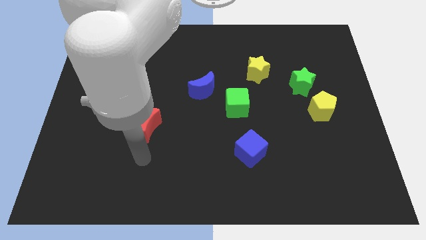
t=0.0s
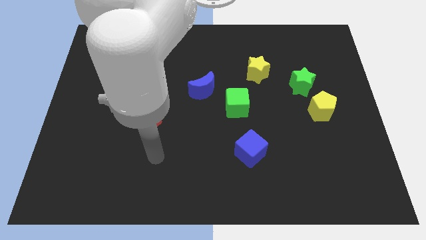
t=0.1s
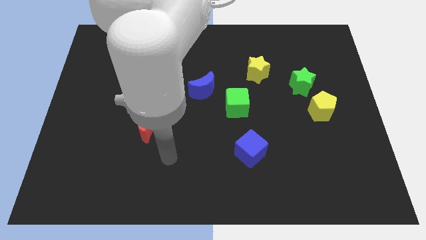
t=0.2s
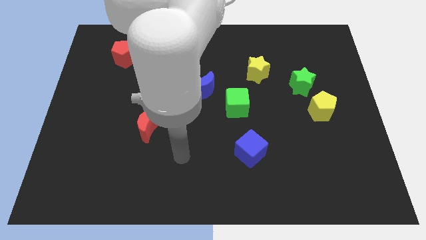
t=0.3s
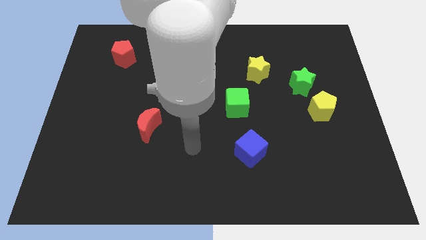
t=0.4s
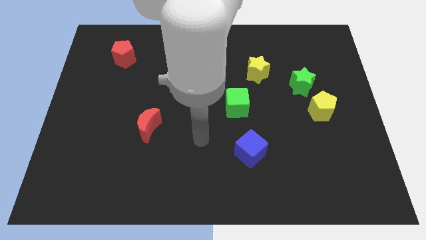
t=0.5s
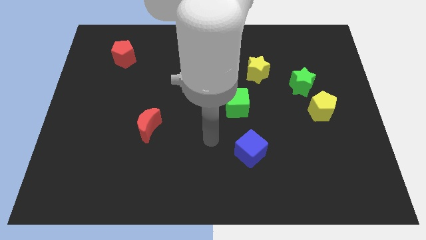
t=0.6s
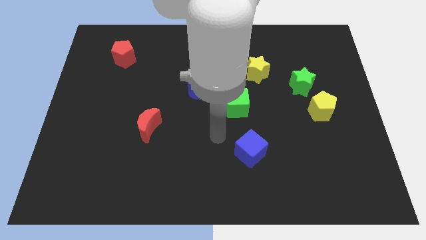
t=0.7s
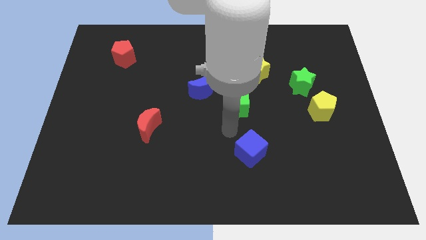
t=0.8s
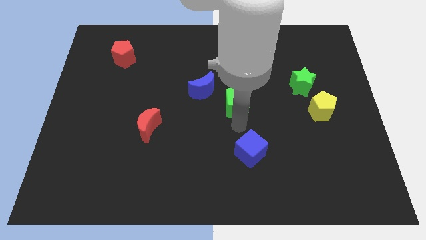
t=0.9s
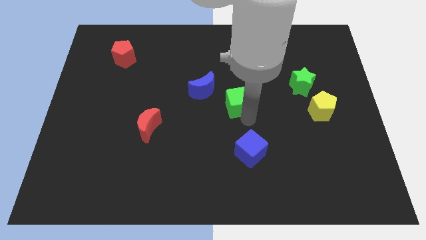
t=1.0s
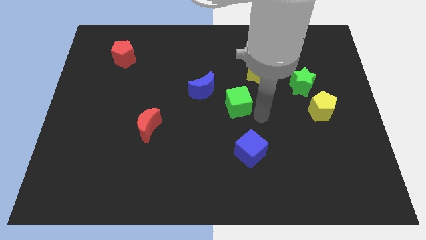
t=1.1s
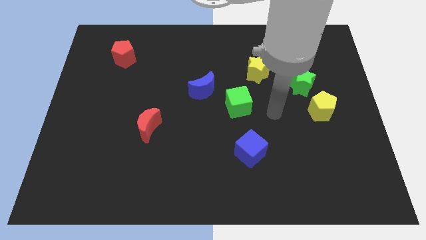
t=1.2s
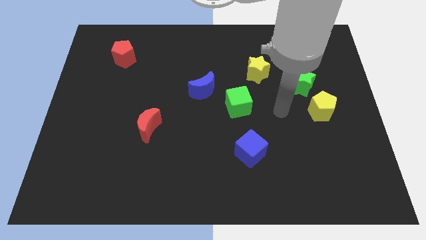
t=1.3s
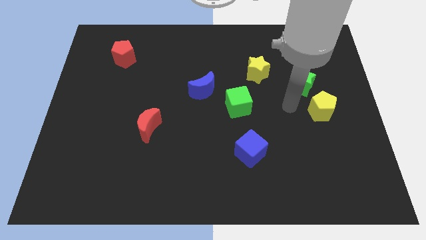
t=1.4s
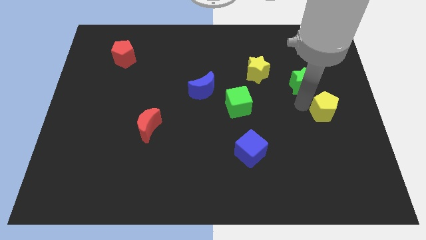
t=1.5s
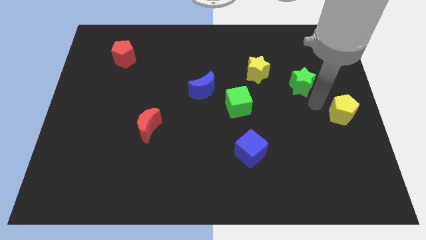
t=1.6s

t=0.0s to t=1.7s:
pull the green star apart from the yellow pentagon

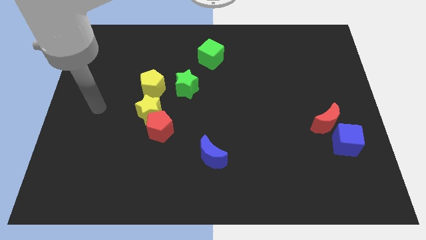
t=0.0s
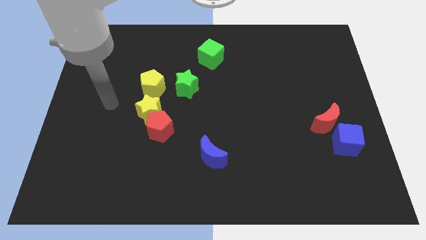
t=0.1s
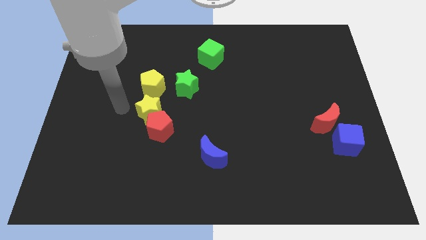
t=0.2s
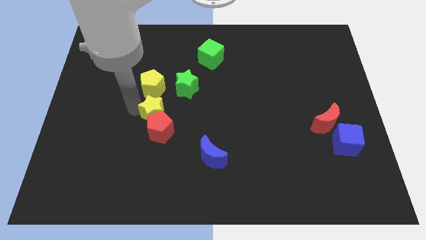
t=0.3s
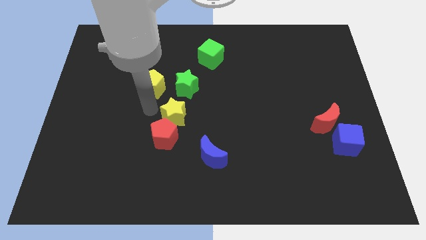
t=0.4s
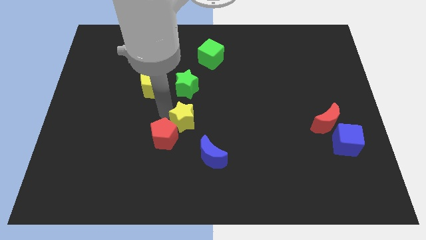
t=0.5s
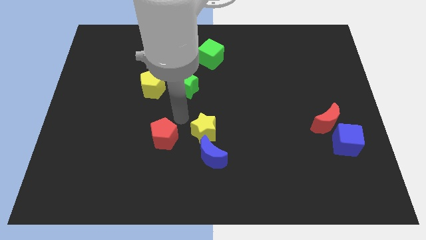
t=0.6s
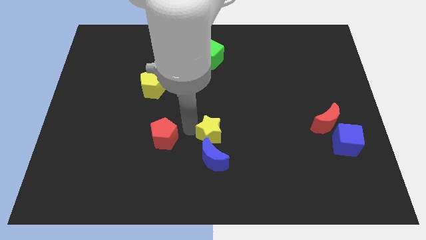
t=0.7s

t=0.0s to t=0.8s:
pull the red pentagon apart from the yellow star

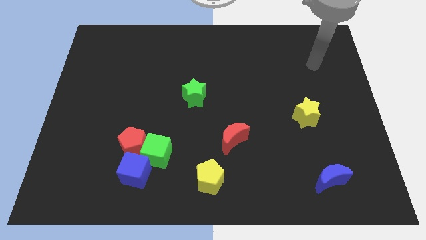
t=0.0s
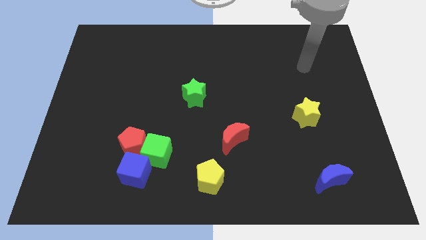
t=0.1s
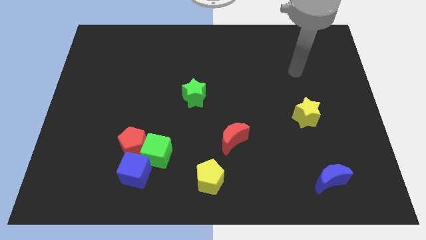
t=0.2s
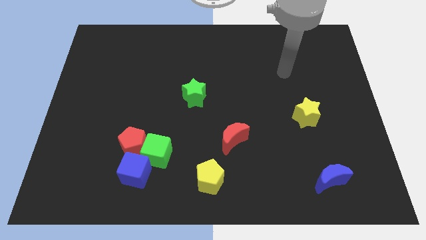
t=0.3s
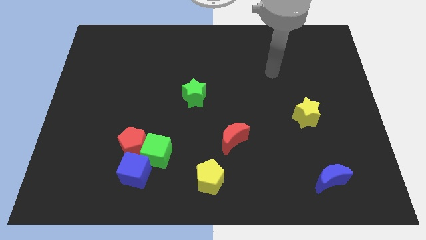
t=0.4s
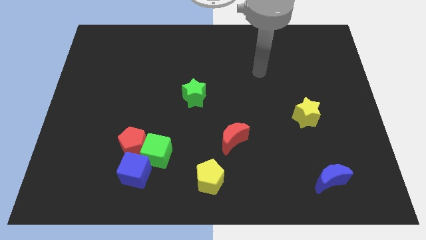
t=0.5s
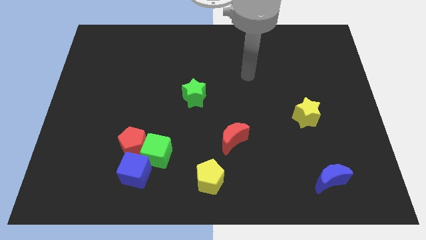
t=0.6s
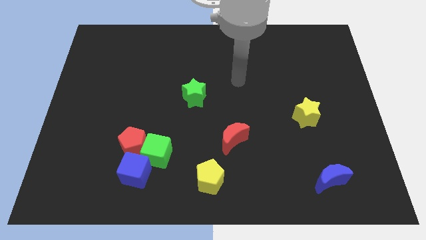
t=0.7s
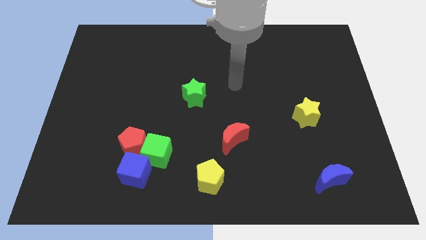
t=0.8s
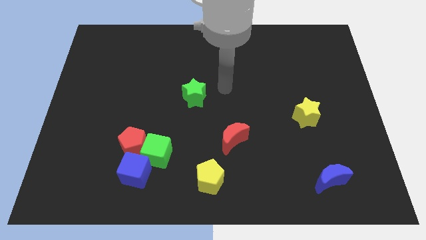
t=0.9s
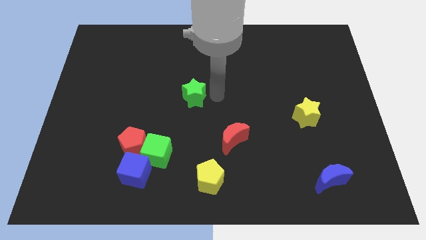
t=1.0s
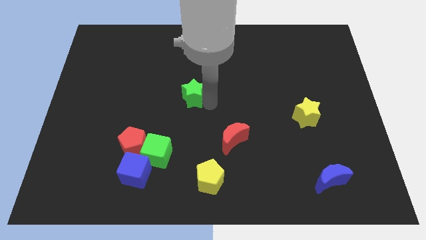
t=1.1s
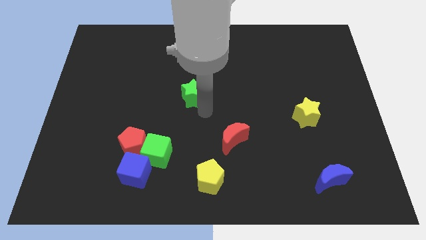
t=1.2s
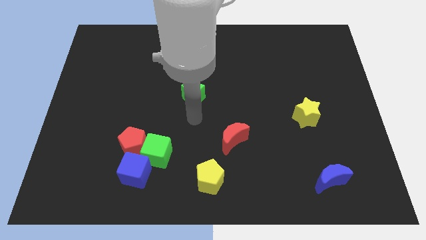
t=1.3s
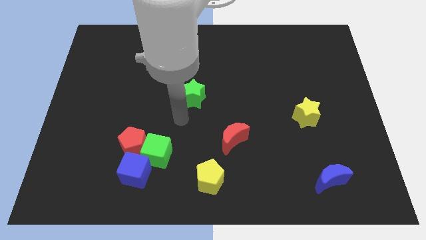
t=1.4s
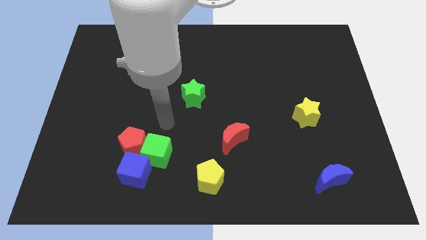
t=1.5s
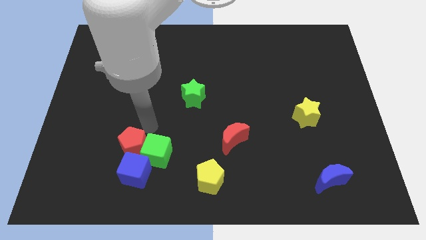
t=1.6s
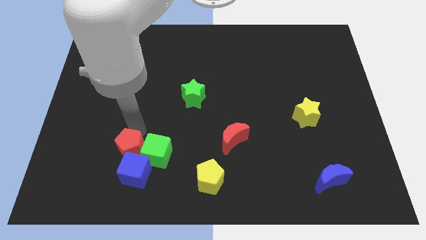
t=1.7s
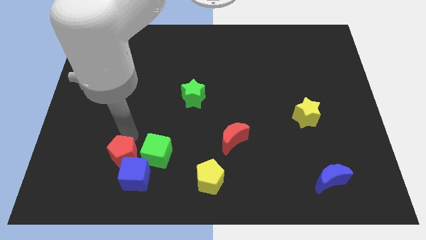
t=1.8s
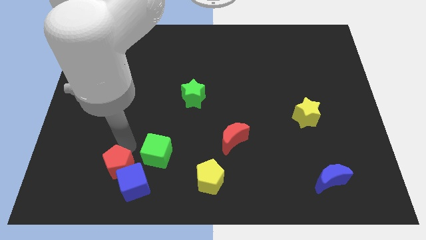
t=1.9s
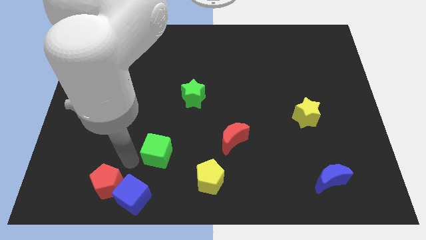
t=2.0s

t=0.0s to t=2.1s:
separate the green cube from the red pentagon and blue cube

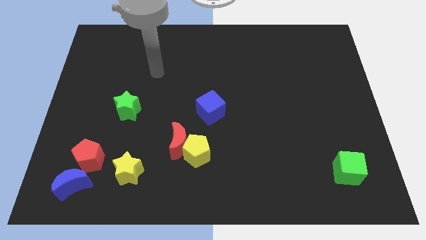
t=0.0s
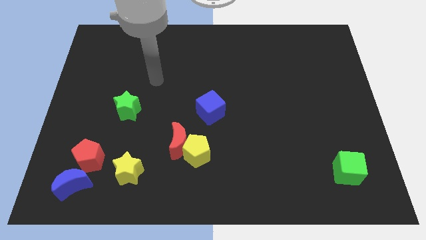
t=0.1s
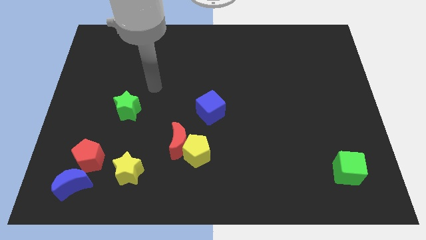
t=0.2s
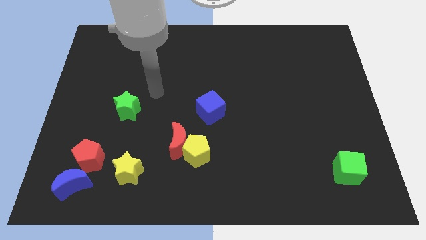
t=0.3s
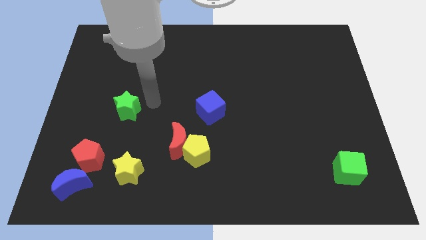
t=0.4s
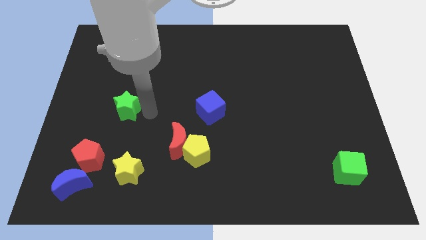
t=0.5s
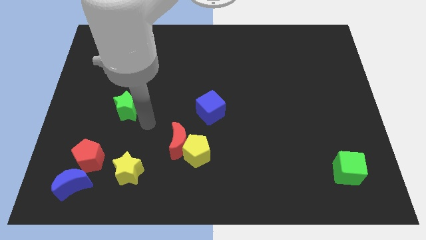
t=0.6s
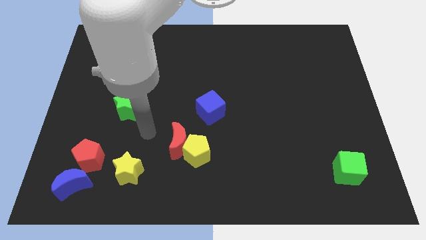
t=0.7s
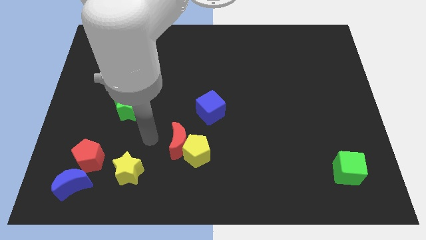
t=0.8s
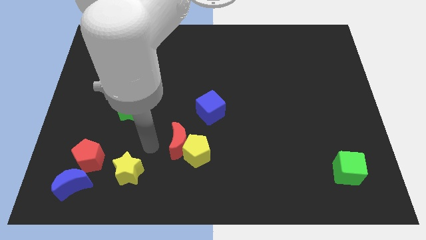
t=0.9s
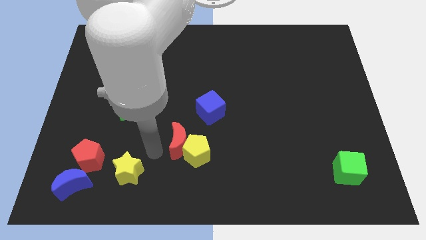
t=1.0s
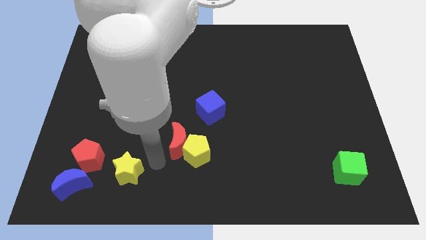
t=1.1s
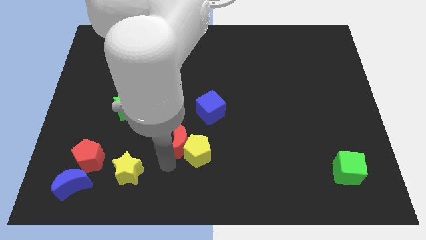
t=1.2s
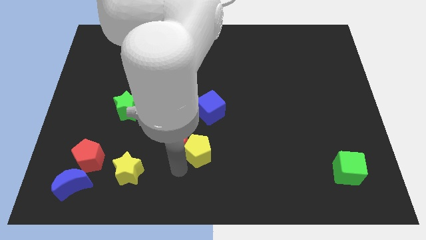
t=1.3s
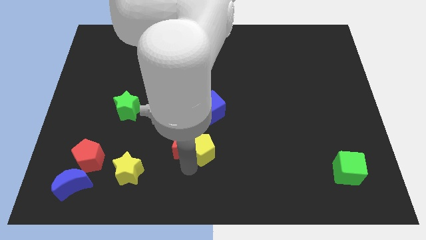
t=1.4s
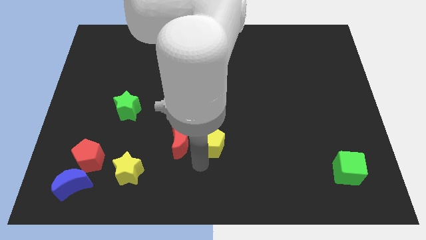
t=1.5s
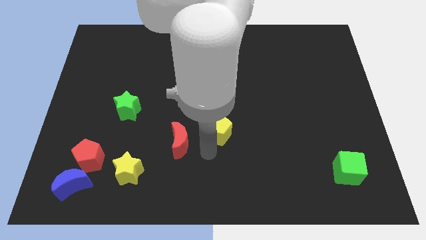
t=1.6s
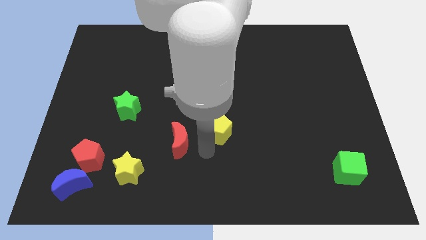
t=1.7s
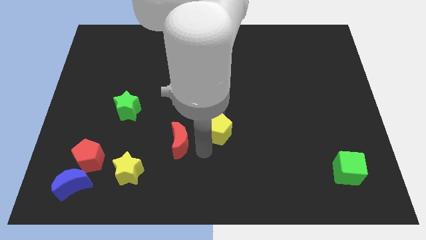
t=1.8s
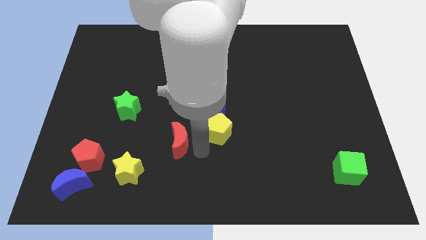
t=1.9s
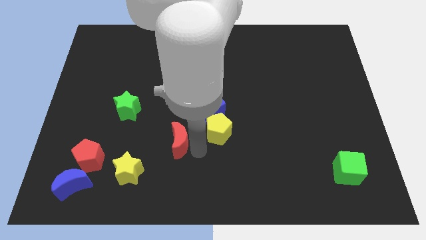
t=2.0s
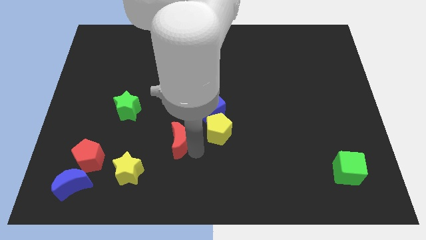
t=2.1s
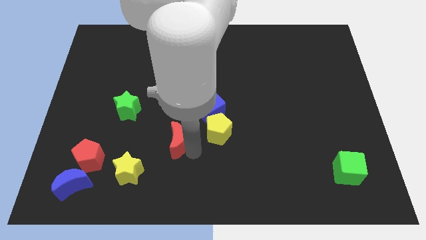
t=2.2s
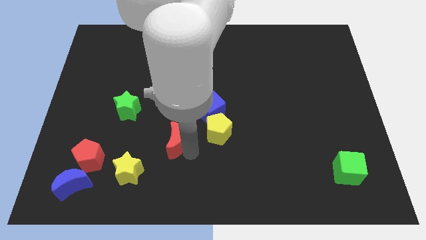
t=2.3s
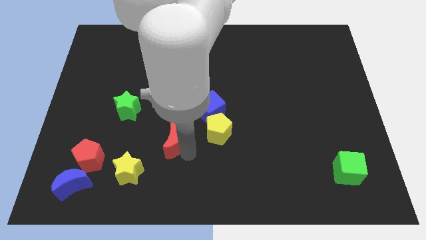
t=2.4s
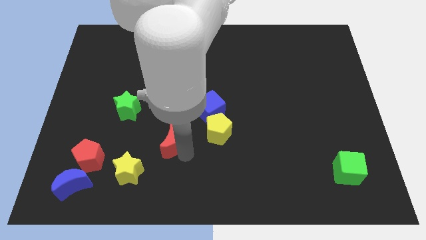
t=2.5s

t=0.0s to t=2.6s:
move the red moon away from the yellow pentagon

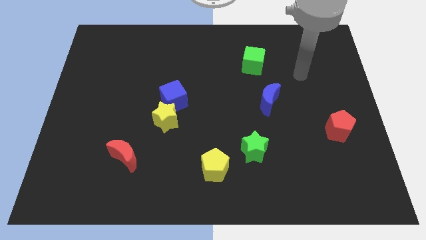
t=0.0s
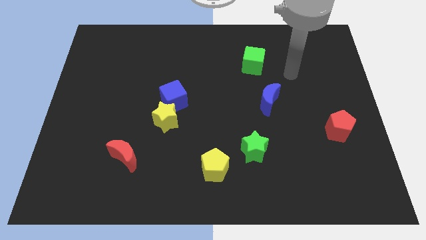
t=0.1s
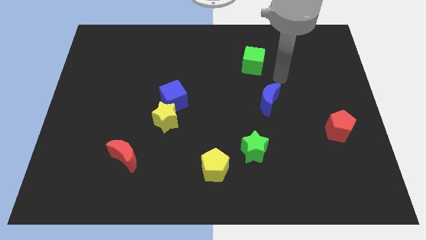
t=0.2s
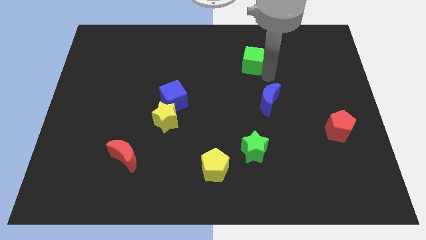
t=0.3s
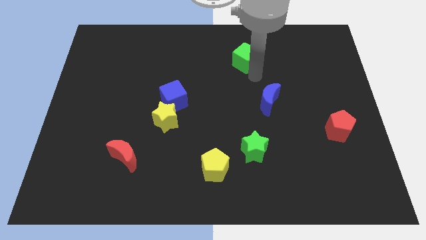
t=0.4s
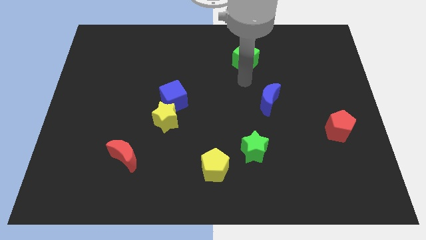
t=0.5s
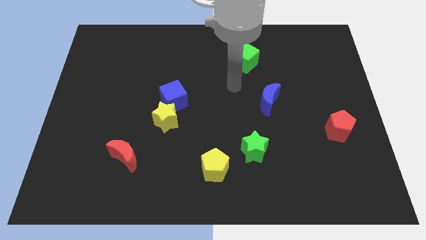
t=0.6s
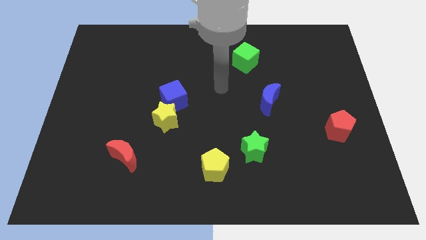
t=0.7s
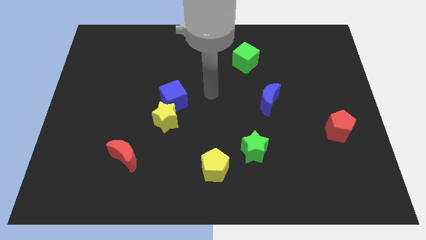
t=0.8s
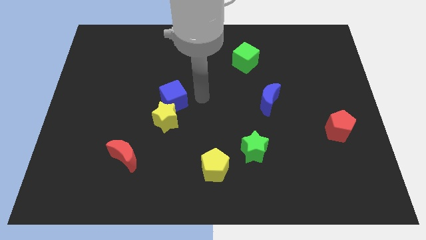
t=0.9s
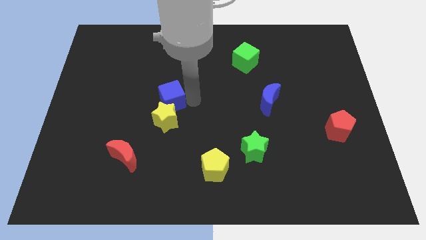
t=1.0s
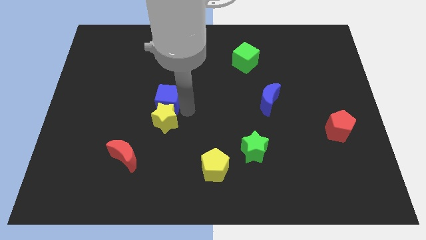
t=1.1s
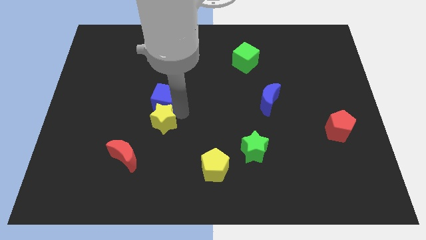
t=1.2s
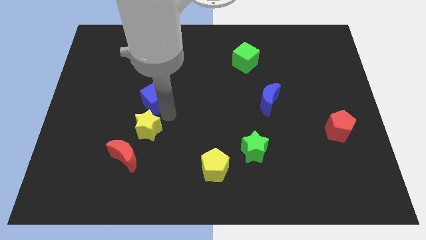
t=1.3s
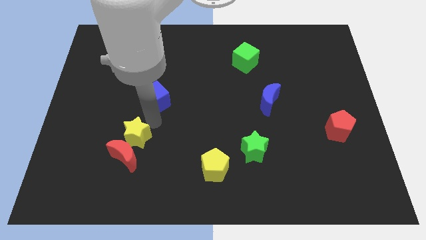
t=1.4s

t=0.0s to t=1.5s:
move the blue cube away from the yellow star

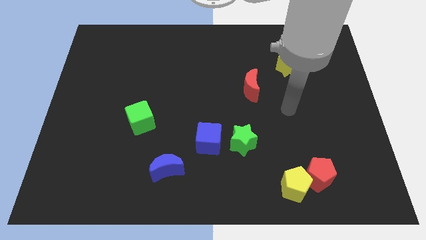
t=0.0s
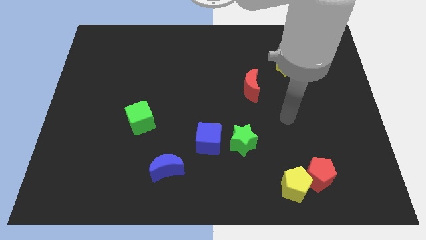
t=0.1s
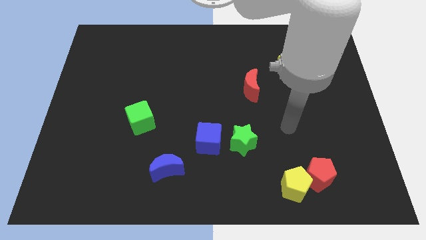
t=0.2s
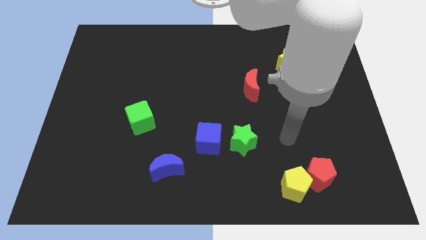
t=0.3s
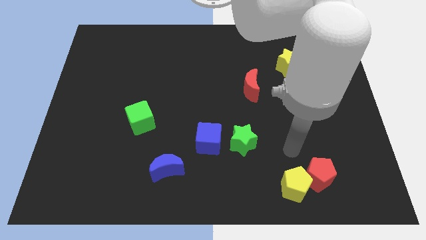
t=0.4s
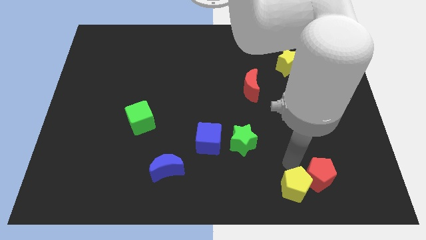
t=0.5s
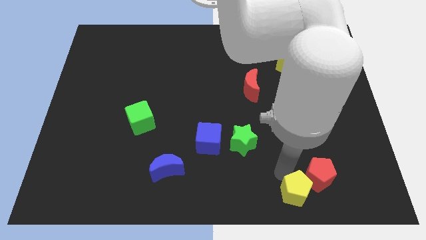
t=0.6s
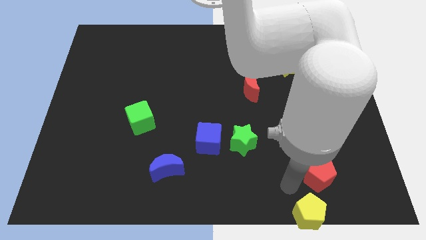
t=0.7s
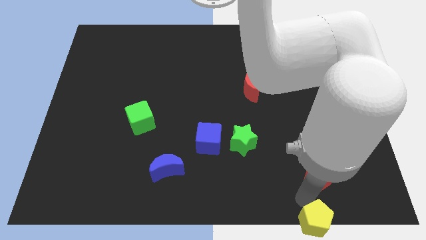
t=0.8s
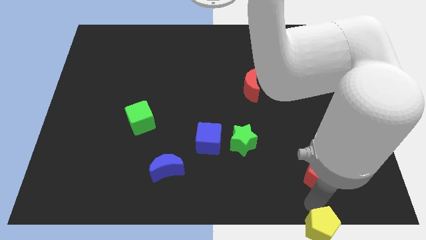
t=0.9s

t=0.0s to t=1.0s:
move the red pentagon away from the yellow pentagon
